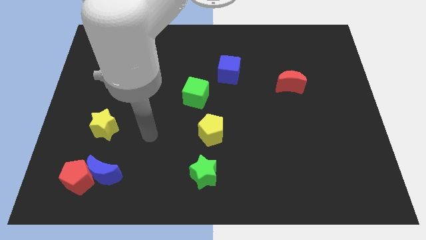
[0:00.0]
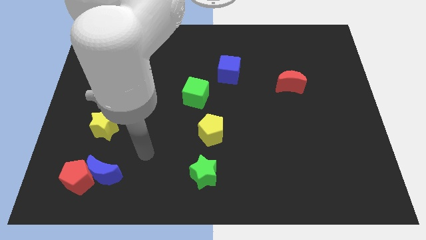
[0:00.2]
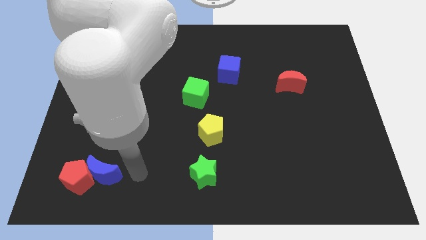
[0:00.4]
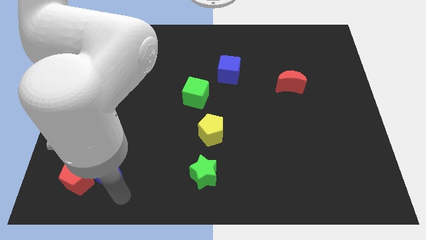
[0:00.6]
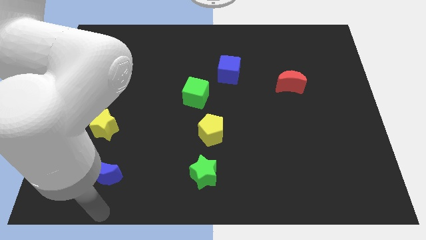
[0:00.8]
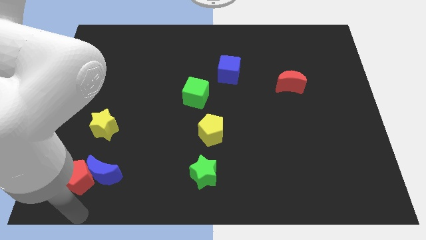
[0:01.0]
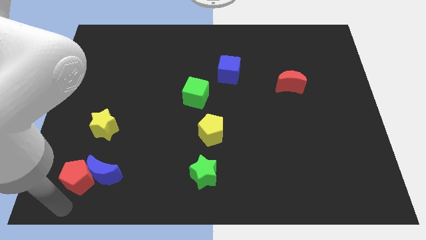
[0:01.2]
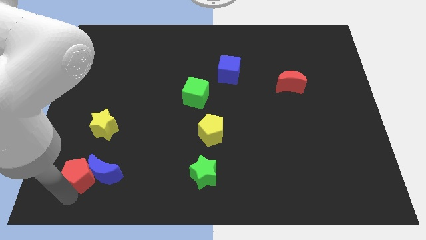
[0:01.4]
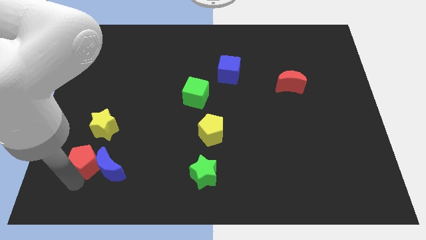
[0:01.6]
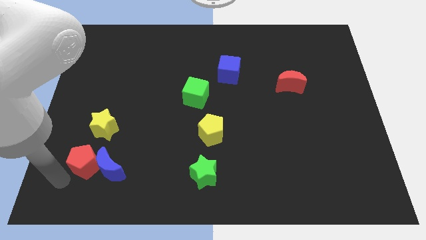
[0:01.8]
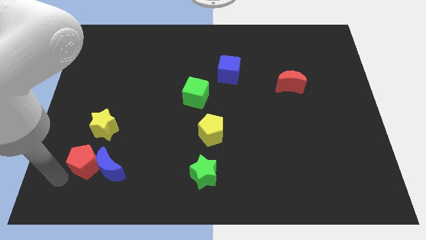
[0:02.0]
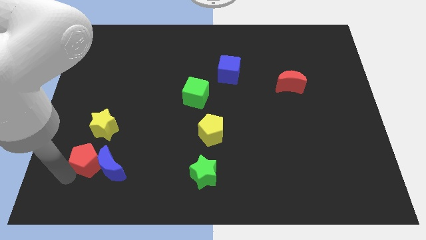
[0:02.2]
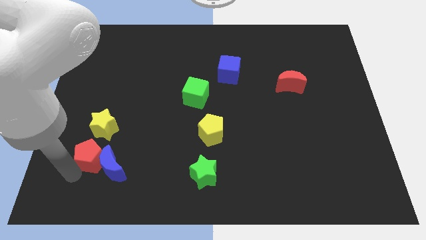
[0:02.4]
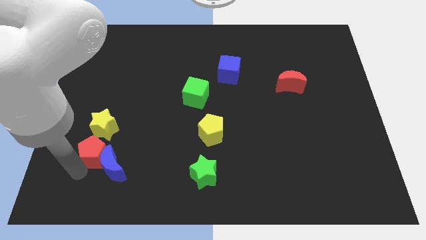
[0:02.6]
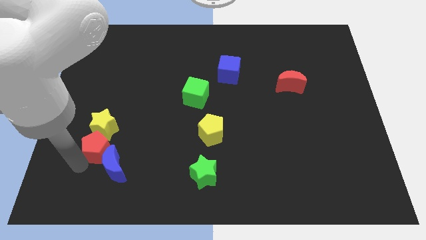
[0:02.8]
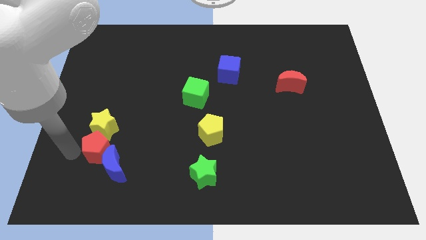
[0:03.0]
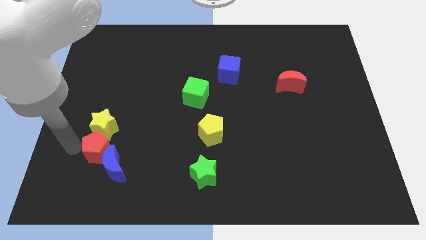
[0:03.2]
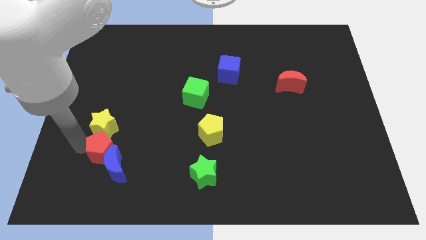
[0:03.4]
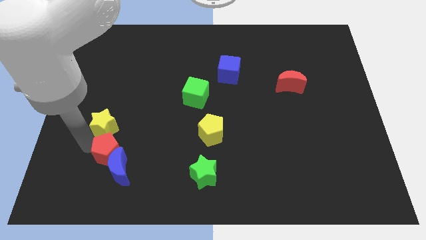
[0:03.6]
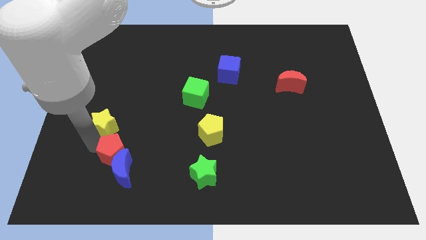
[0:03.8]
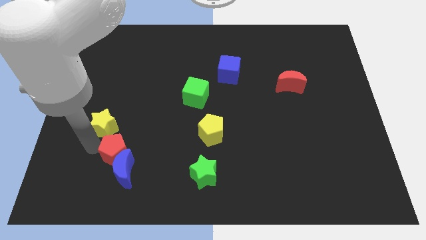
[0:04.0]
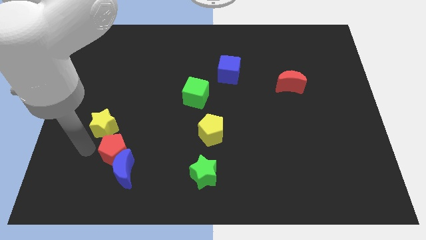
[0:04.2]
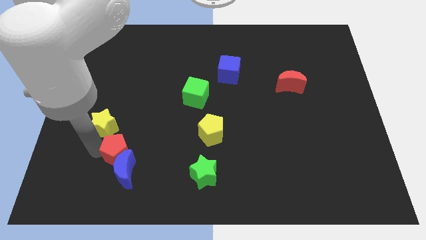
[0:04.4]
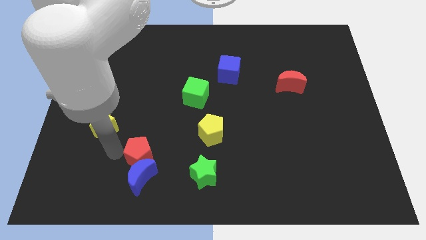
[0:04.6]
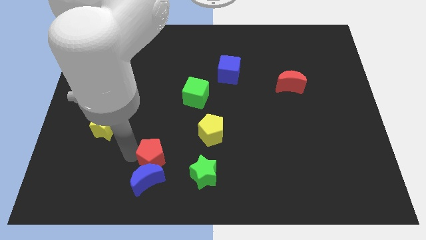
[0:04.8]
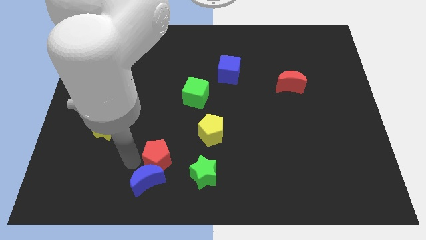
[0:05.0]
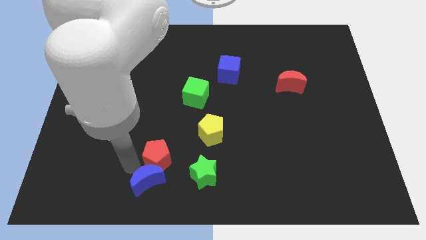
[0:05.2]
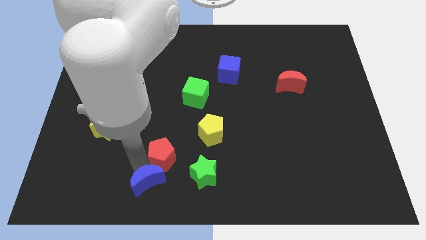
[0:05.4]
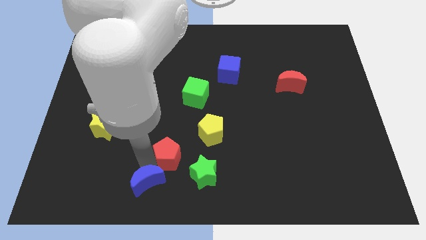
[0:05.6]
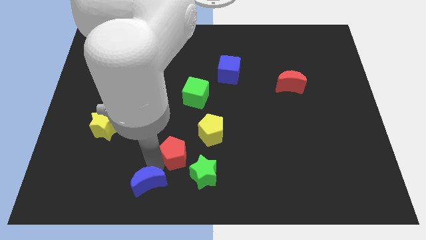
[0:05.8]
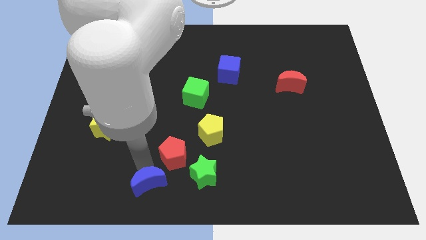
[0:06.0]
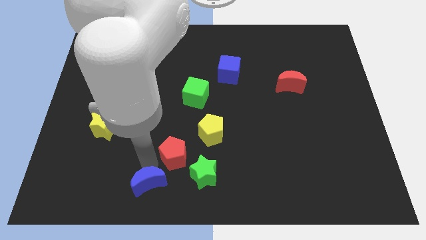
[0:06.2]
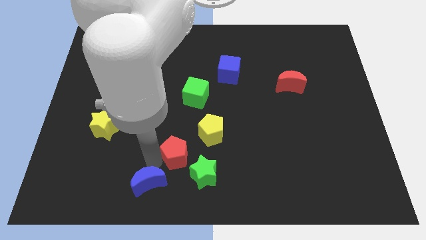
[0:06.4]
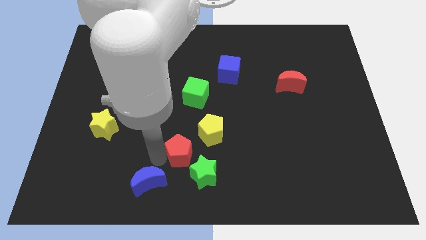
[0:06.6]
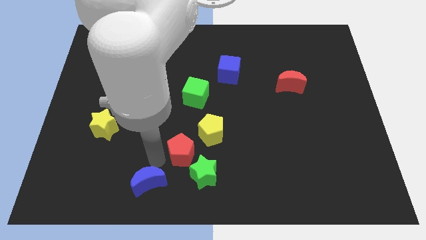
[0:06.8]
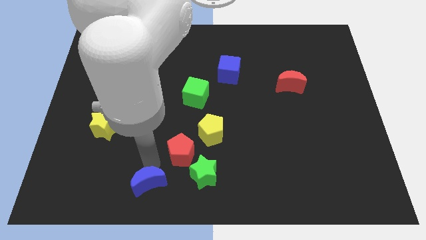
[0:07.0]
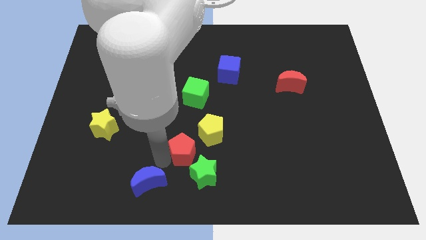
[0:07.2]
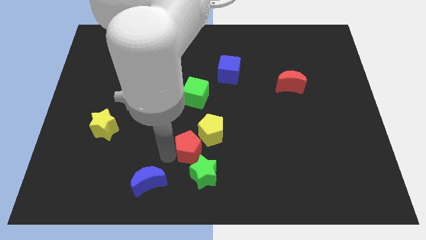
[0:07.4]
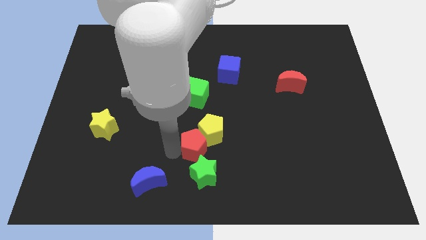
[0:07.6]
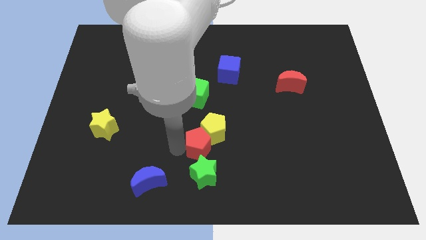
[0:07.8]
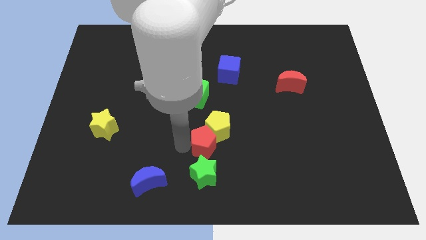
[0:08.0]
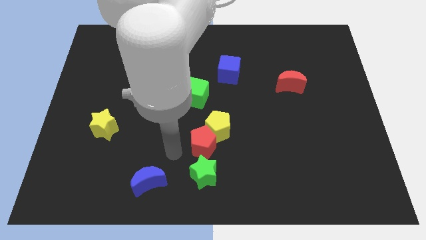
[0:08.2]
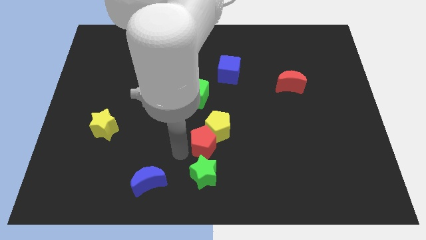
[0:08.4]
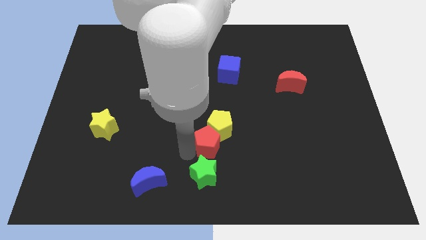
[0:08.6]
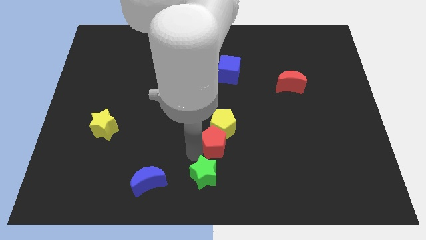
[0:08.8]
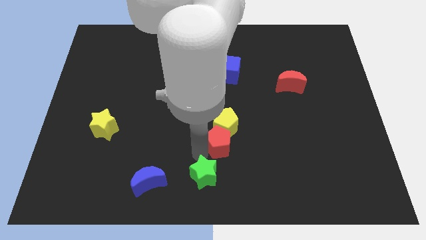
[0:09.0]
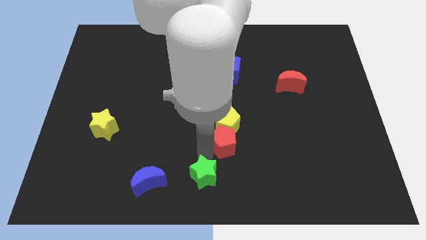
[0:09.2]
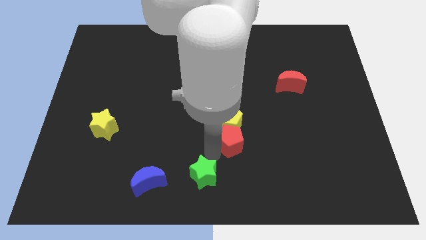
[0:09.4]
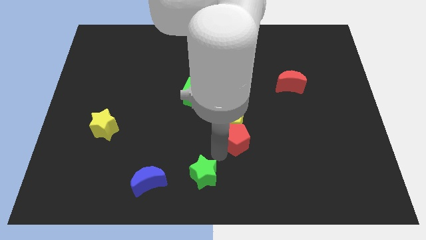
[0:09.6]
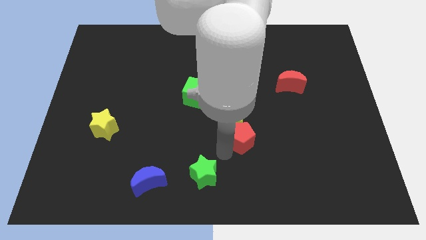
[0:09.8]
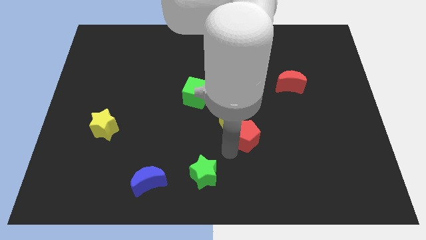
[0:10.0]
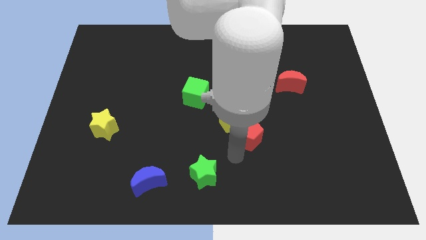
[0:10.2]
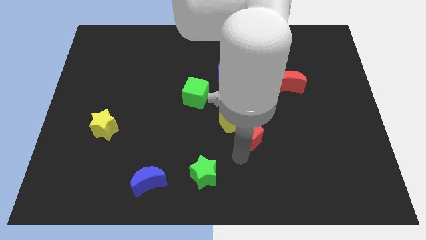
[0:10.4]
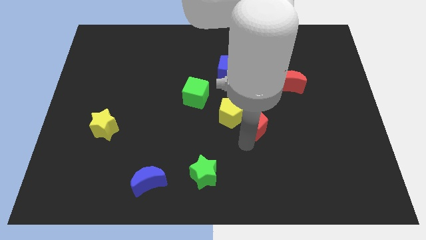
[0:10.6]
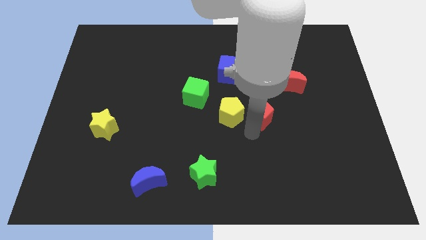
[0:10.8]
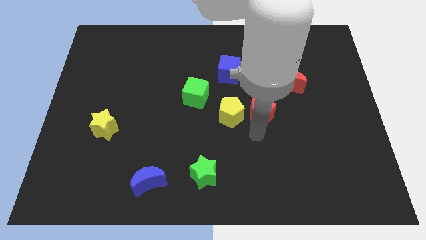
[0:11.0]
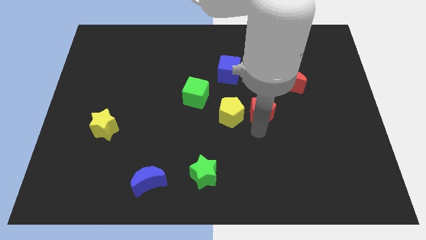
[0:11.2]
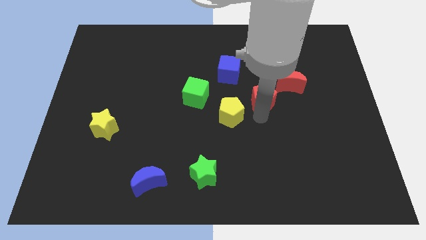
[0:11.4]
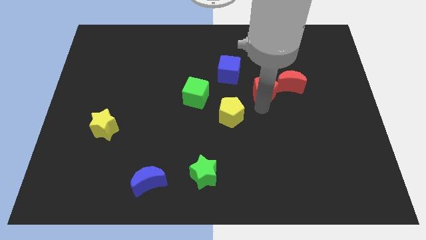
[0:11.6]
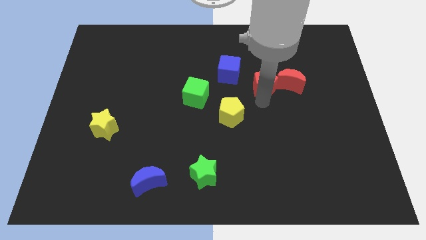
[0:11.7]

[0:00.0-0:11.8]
put the red pentagon to the right side of the blue cube

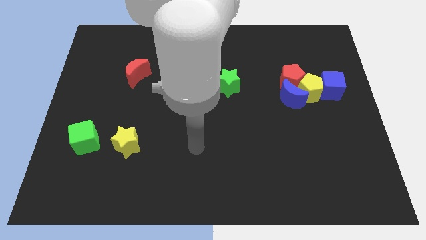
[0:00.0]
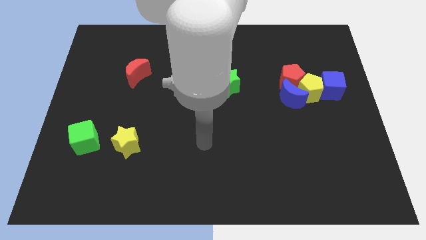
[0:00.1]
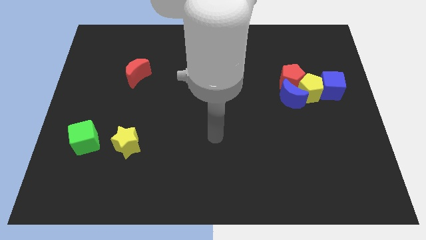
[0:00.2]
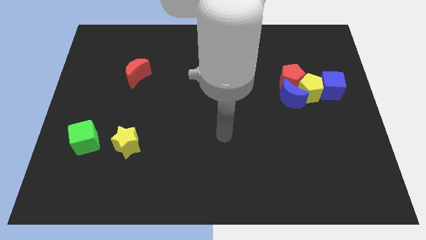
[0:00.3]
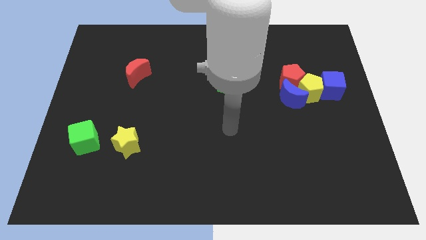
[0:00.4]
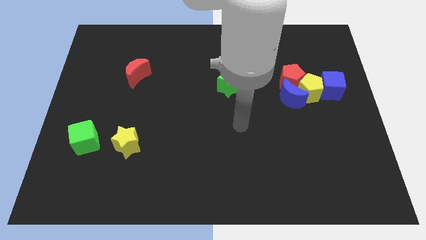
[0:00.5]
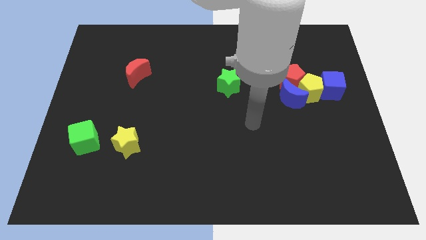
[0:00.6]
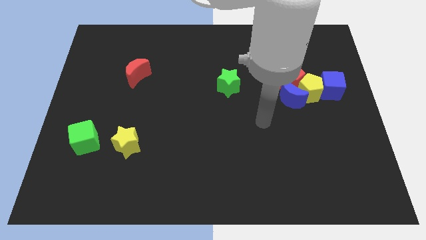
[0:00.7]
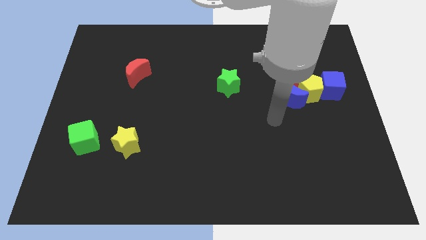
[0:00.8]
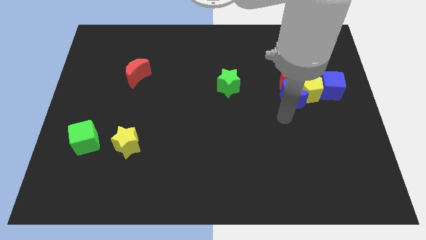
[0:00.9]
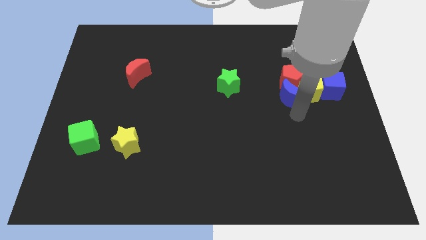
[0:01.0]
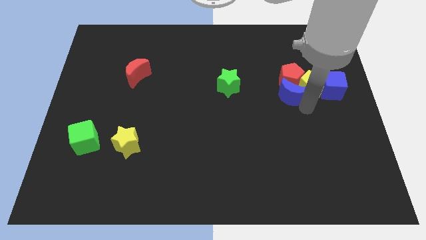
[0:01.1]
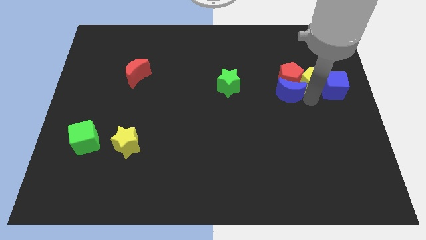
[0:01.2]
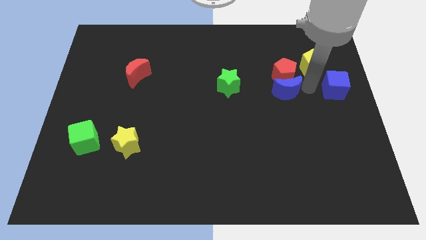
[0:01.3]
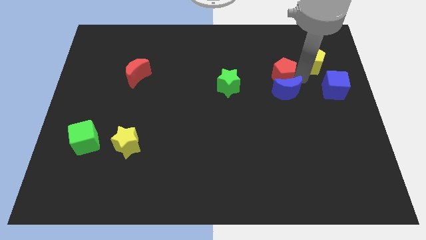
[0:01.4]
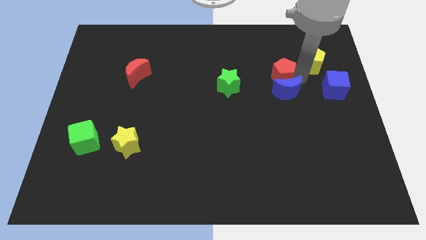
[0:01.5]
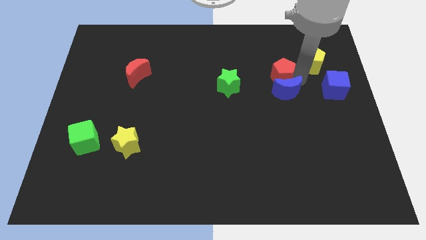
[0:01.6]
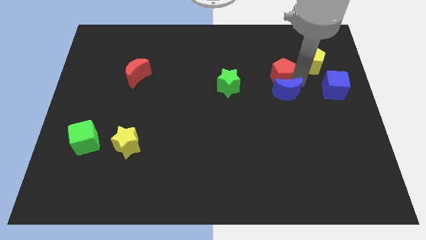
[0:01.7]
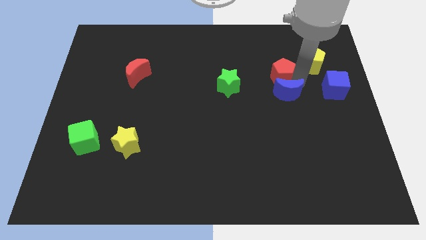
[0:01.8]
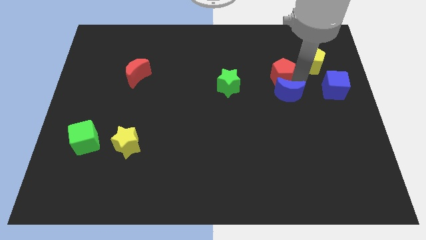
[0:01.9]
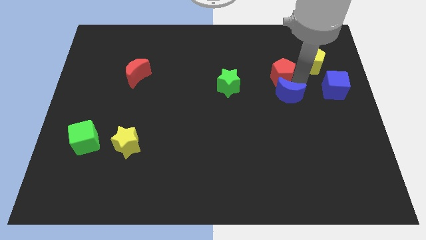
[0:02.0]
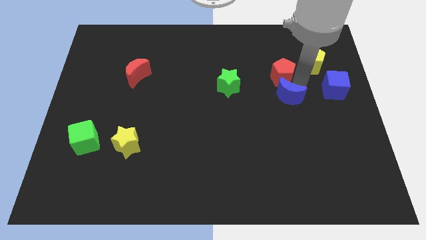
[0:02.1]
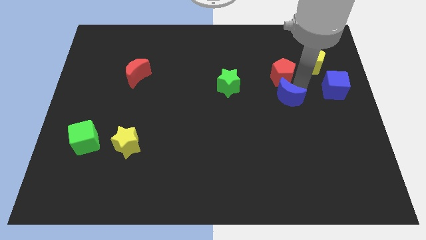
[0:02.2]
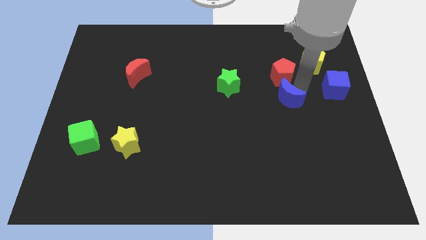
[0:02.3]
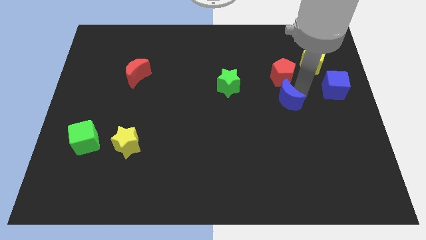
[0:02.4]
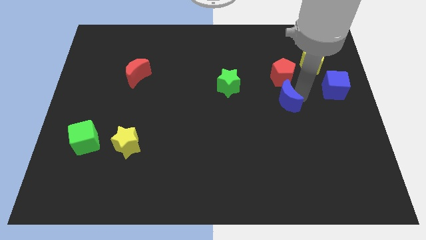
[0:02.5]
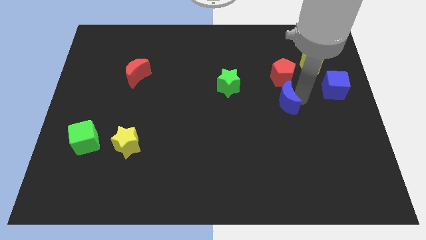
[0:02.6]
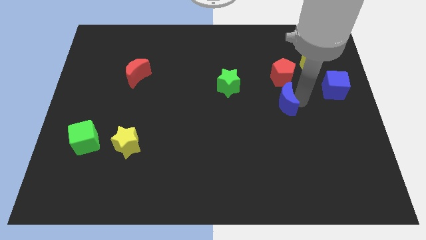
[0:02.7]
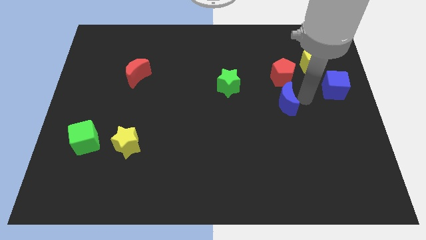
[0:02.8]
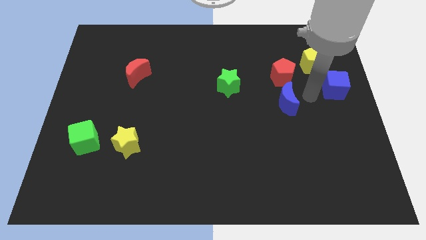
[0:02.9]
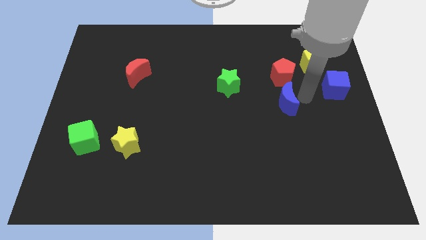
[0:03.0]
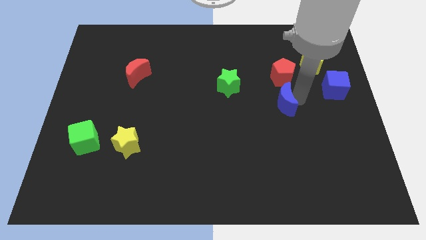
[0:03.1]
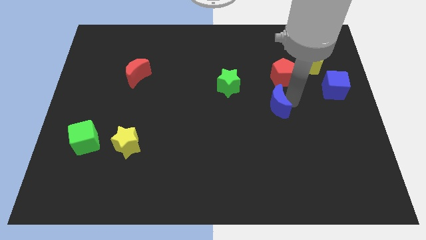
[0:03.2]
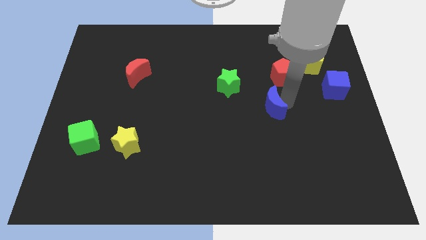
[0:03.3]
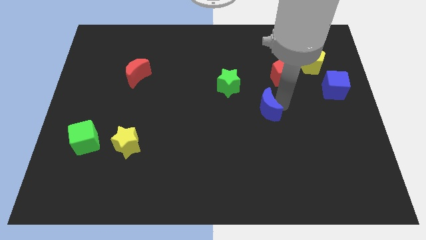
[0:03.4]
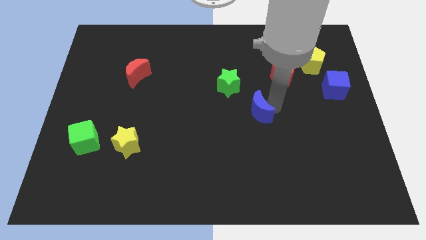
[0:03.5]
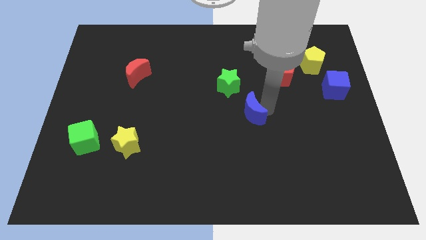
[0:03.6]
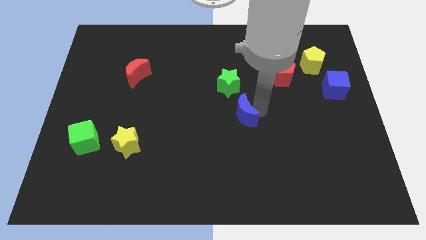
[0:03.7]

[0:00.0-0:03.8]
push the blue moon below the green star
